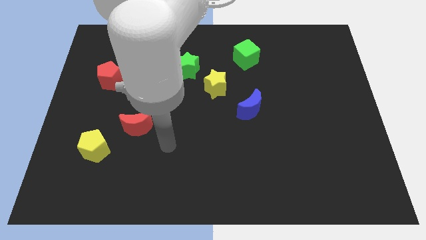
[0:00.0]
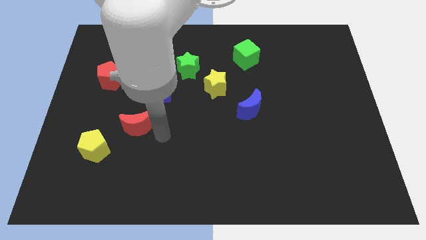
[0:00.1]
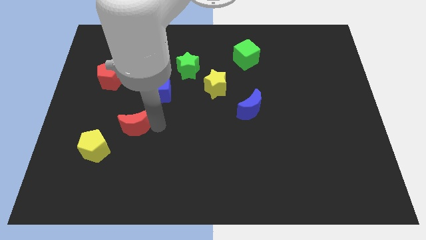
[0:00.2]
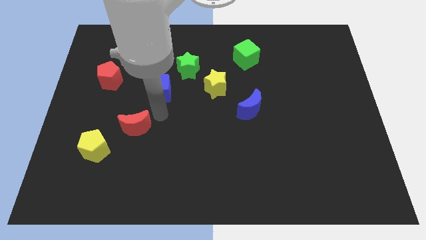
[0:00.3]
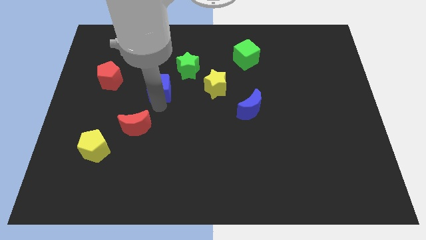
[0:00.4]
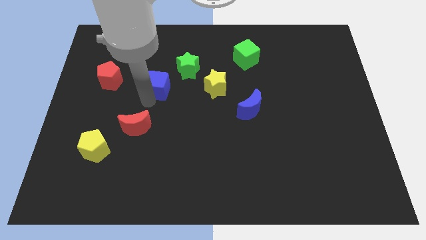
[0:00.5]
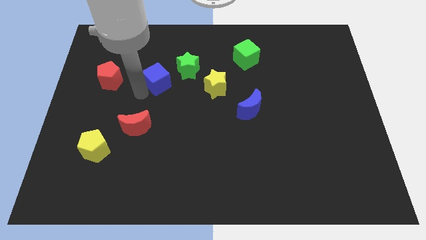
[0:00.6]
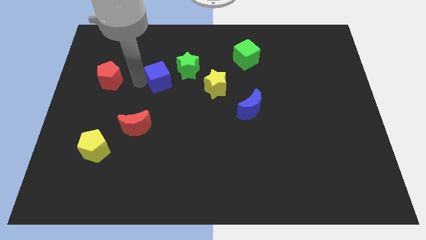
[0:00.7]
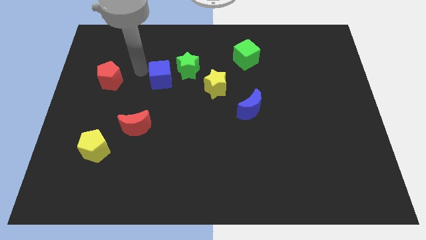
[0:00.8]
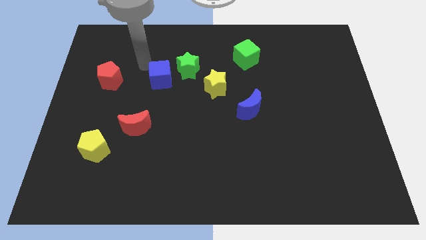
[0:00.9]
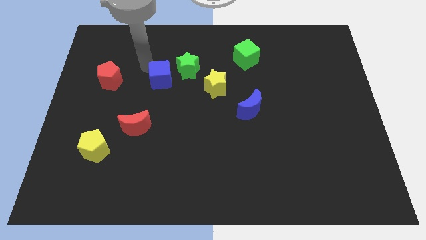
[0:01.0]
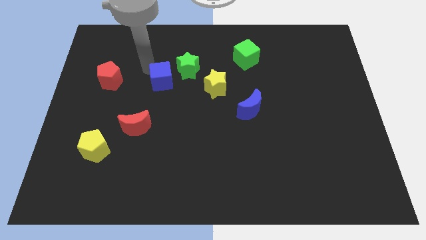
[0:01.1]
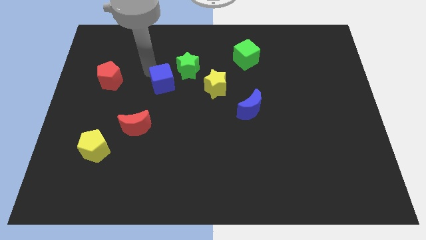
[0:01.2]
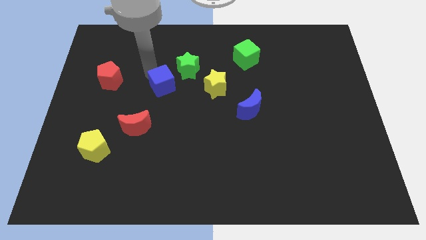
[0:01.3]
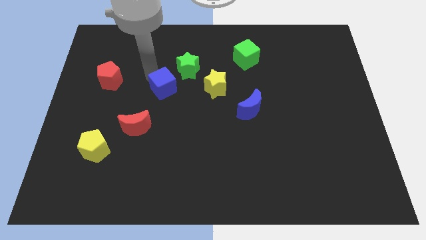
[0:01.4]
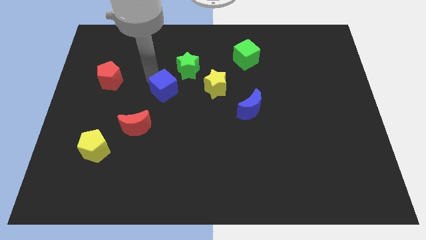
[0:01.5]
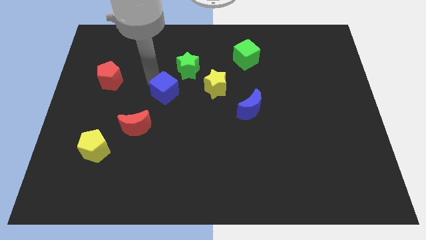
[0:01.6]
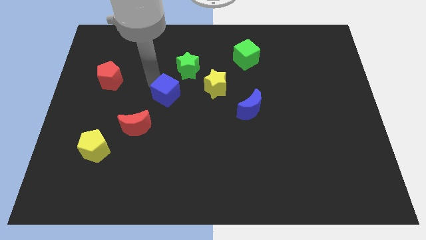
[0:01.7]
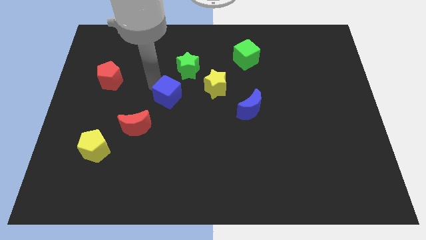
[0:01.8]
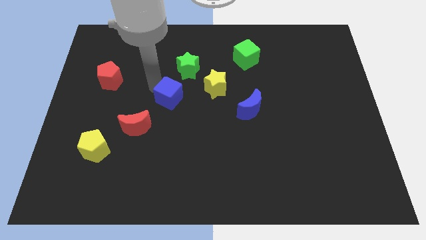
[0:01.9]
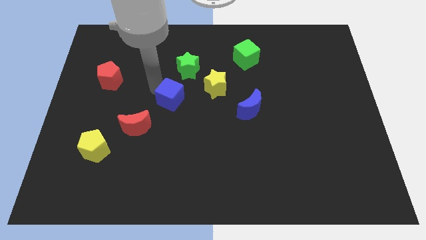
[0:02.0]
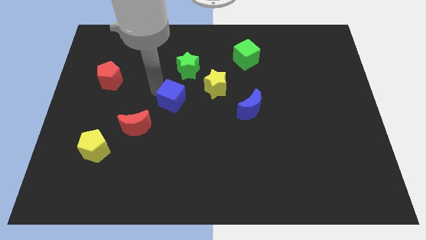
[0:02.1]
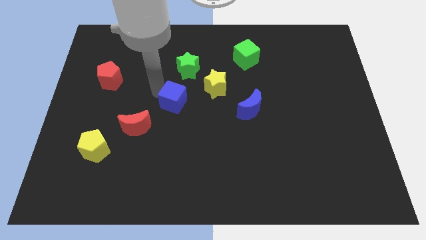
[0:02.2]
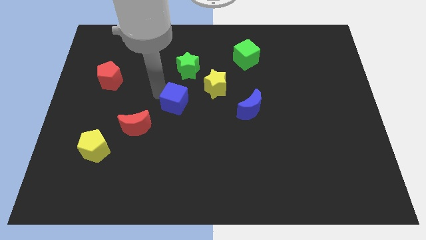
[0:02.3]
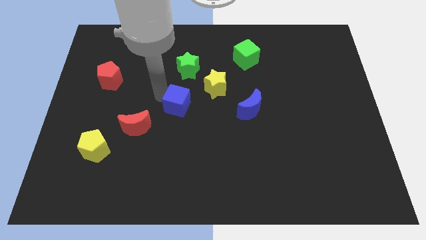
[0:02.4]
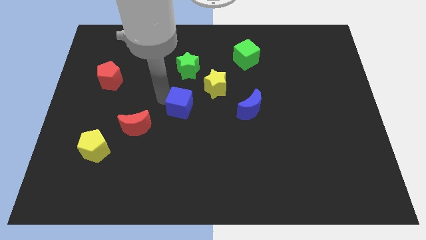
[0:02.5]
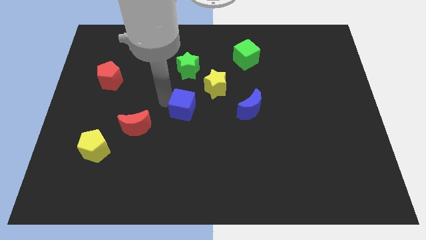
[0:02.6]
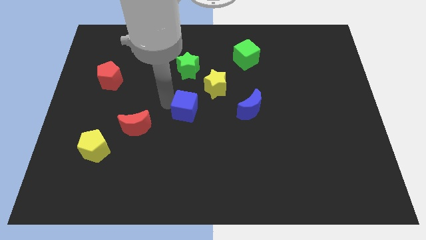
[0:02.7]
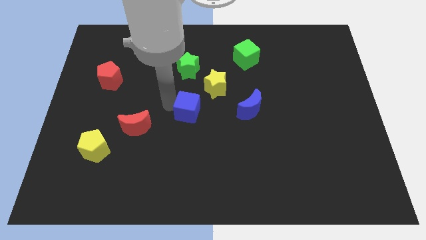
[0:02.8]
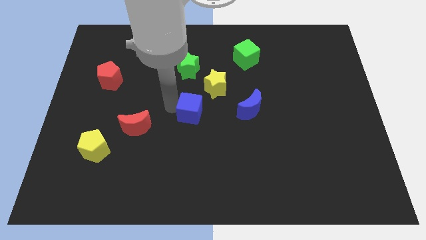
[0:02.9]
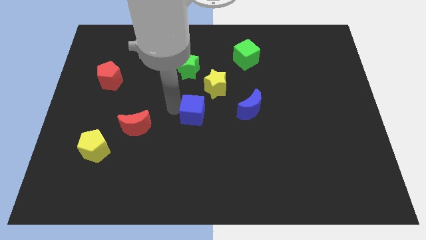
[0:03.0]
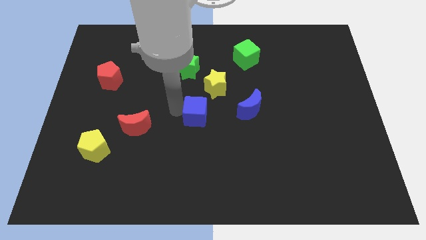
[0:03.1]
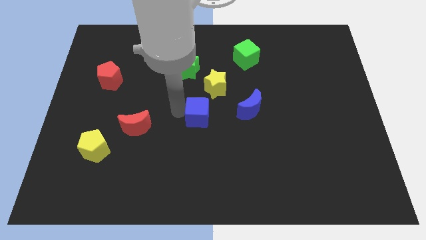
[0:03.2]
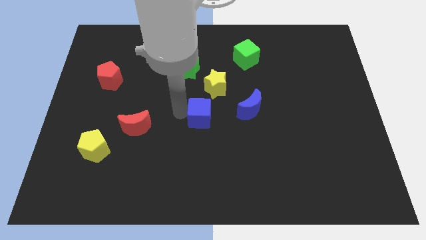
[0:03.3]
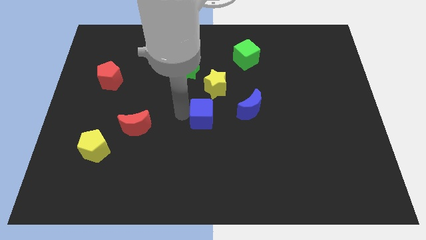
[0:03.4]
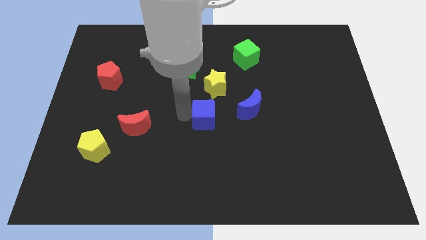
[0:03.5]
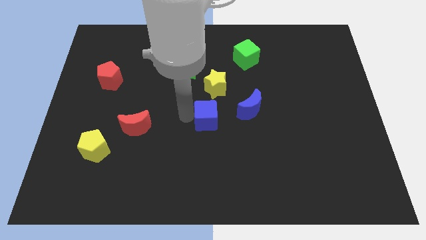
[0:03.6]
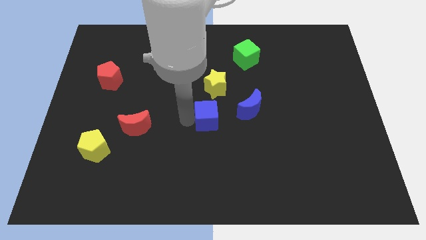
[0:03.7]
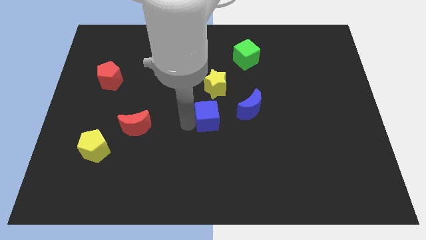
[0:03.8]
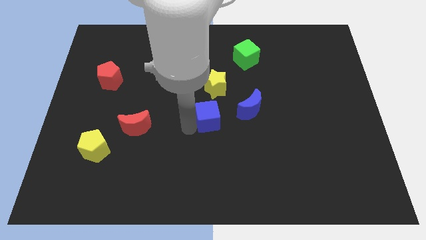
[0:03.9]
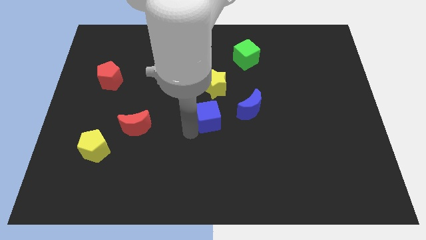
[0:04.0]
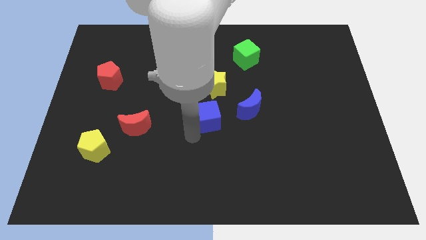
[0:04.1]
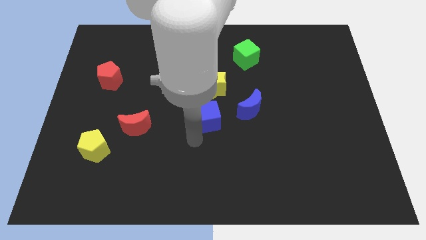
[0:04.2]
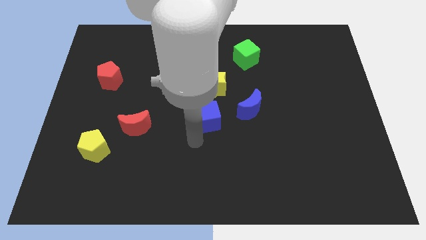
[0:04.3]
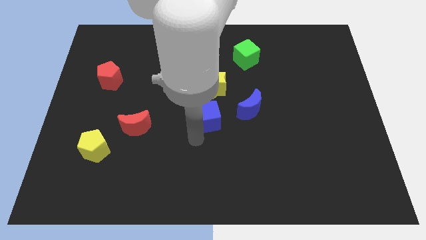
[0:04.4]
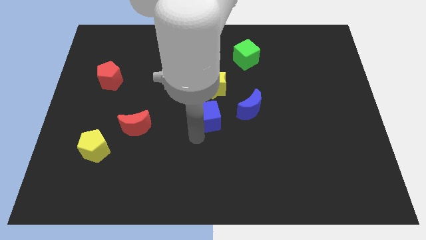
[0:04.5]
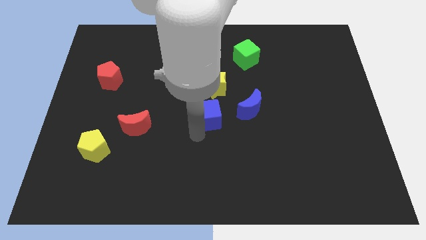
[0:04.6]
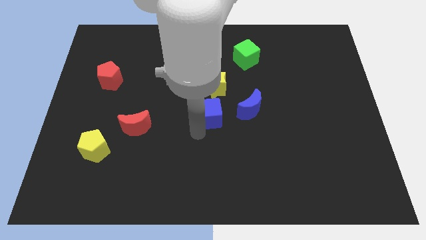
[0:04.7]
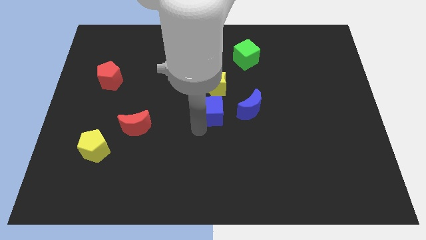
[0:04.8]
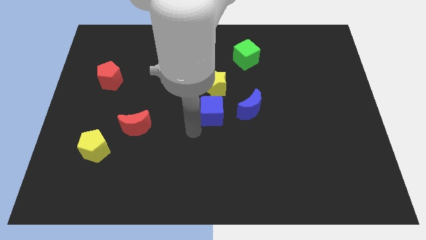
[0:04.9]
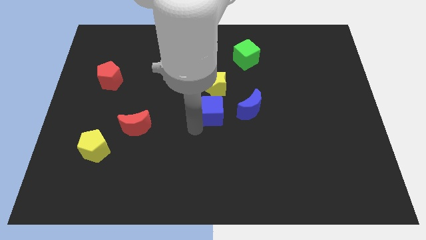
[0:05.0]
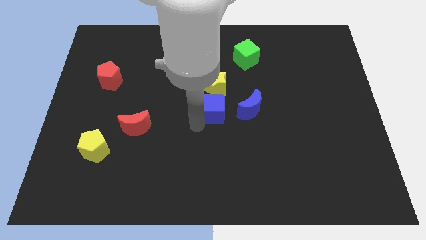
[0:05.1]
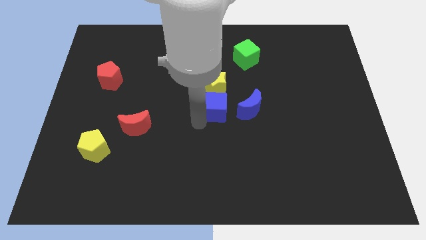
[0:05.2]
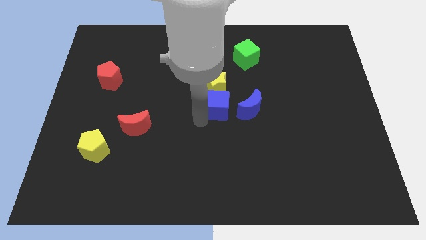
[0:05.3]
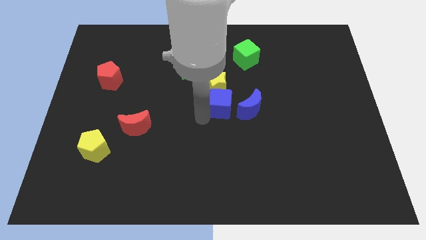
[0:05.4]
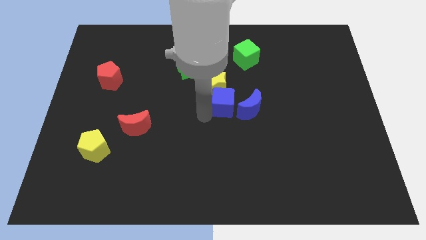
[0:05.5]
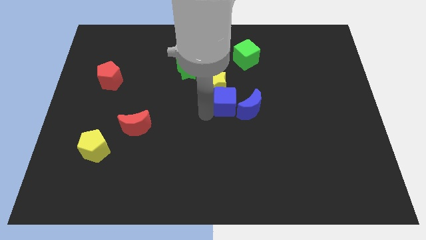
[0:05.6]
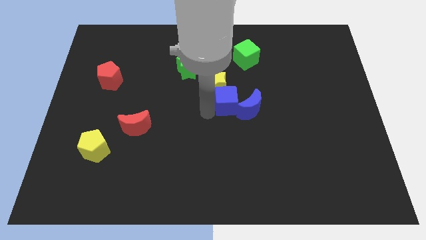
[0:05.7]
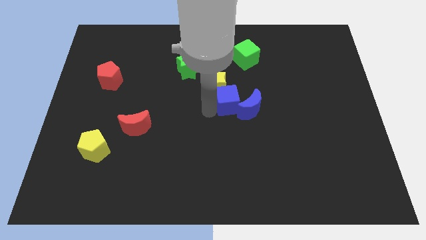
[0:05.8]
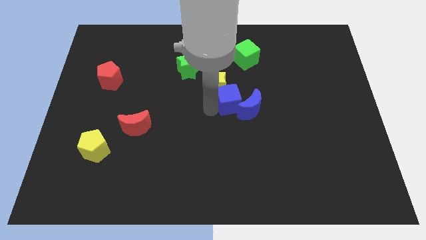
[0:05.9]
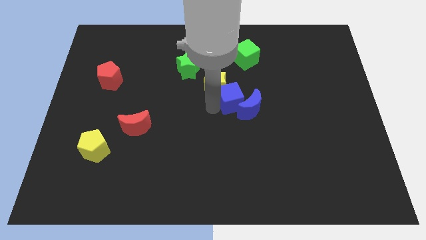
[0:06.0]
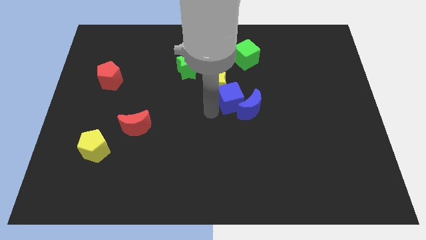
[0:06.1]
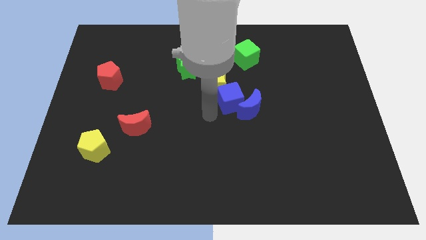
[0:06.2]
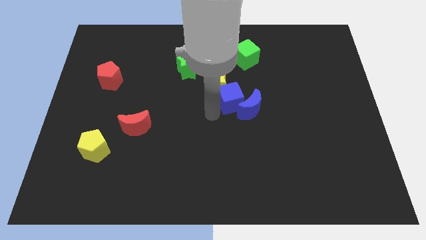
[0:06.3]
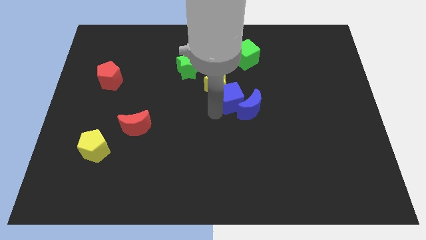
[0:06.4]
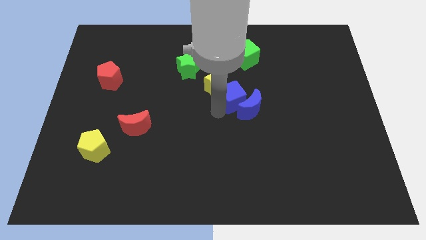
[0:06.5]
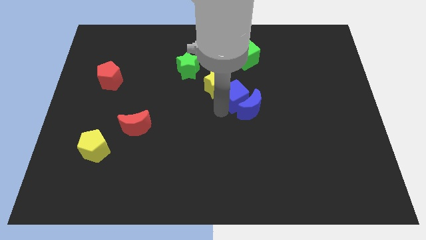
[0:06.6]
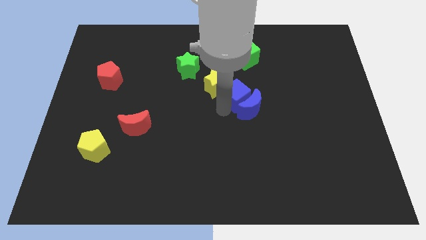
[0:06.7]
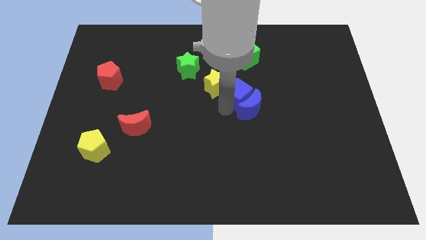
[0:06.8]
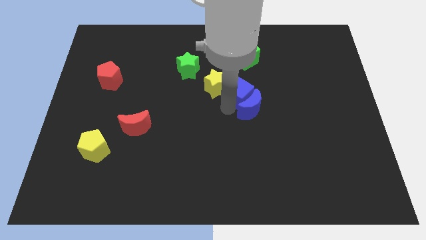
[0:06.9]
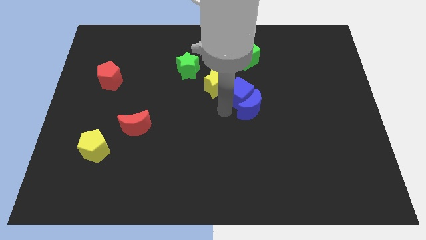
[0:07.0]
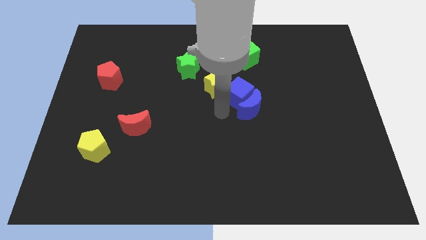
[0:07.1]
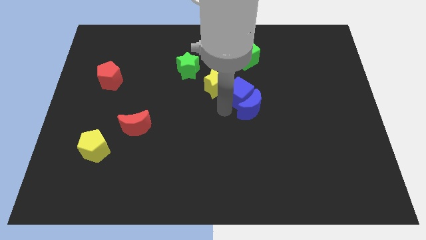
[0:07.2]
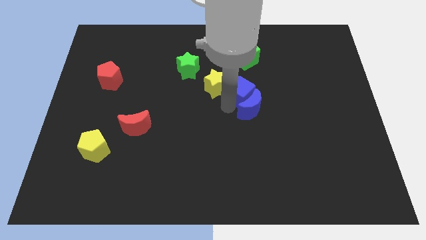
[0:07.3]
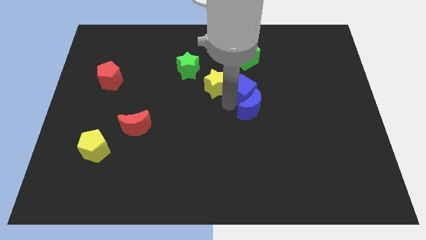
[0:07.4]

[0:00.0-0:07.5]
slide the blue cube right

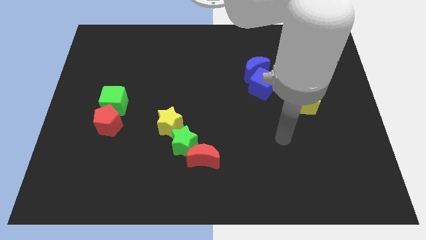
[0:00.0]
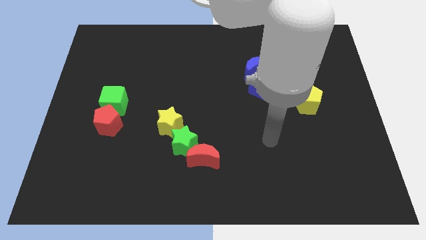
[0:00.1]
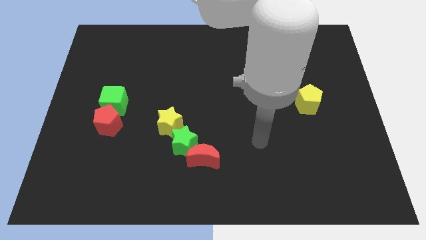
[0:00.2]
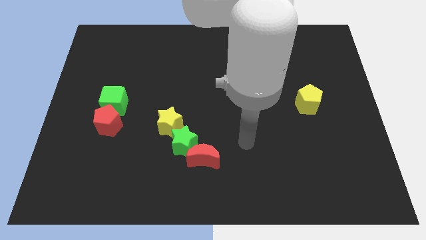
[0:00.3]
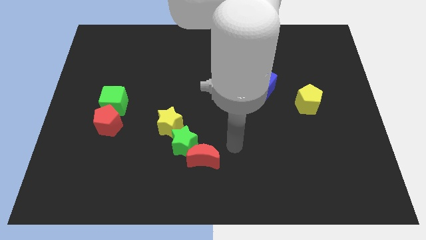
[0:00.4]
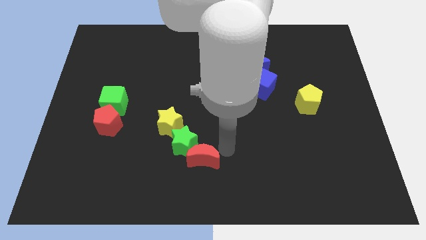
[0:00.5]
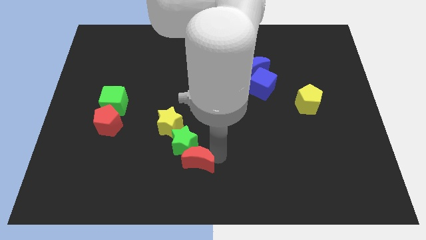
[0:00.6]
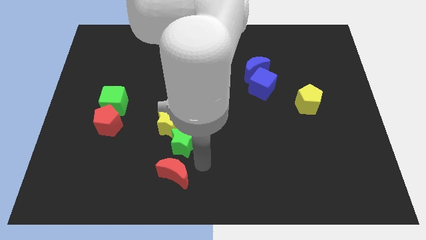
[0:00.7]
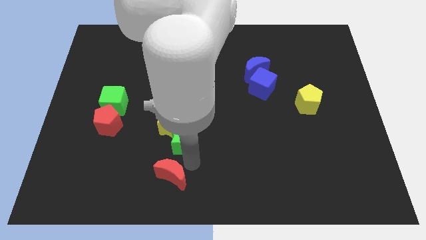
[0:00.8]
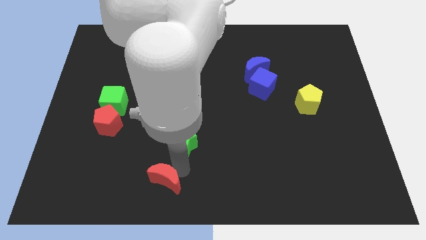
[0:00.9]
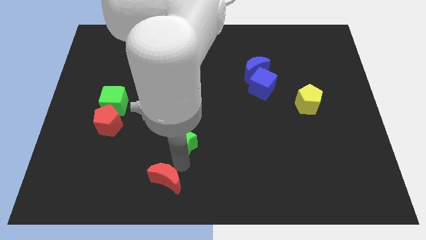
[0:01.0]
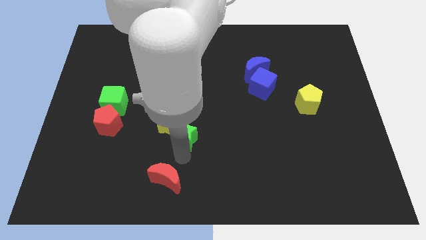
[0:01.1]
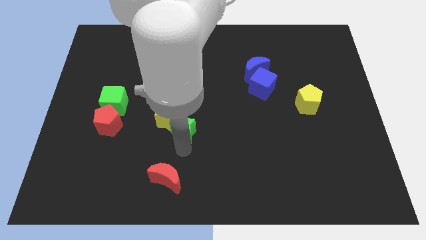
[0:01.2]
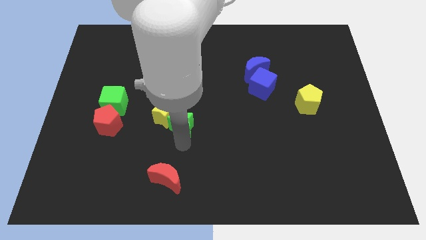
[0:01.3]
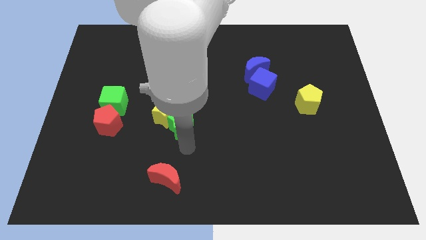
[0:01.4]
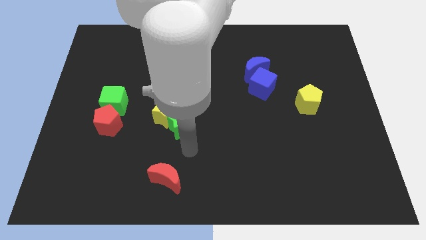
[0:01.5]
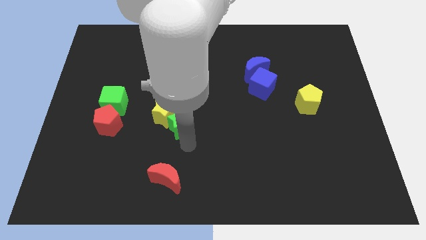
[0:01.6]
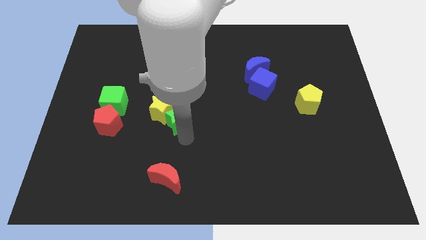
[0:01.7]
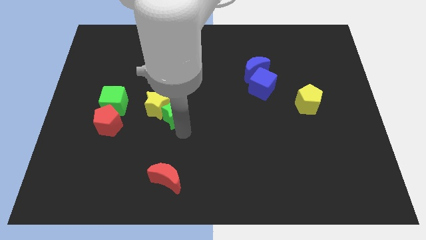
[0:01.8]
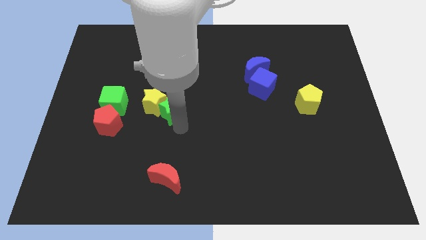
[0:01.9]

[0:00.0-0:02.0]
move the green star a little bit upwards and to the left diagonally
